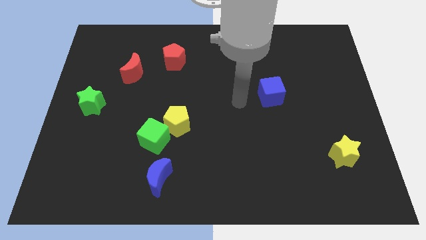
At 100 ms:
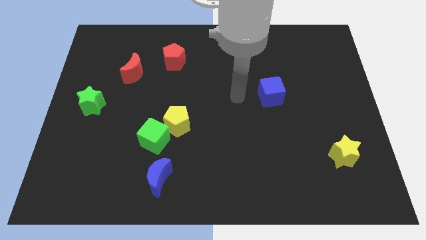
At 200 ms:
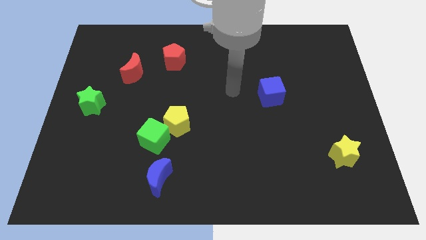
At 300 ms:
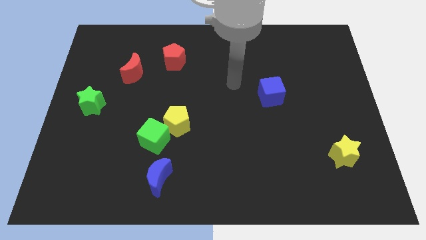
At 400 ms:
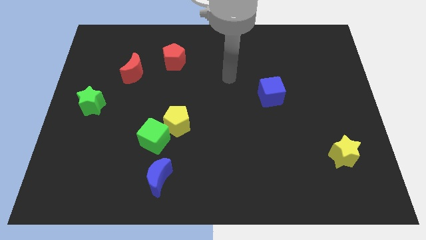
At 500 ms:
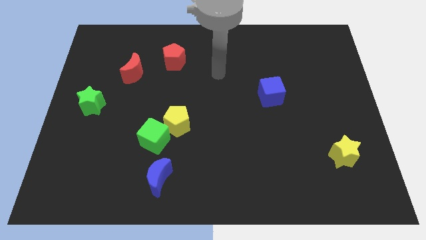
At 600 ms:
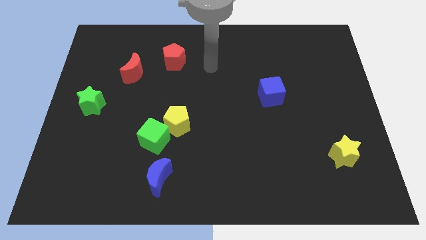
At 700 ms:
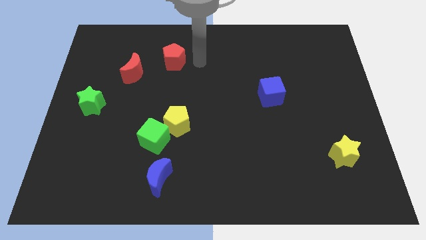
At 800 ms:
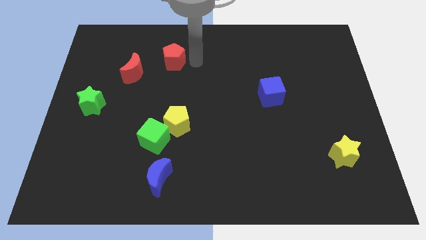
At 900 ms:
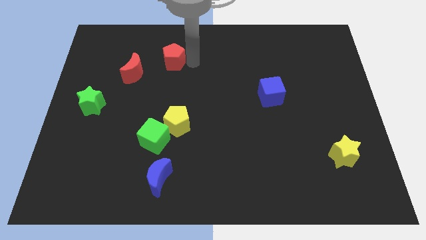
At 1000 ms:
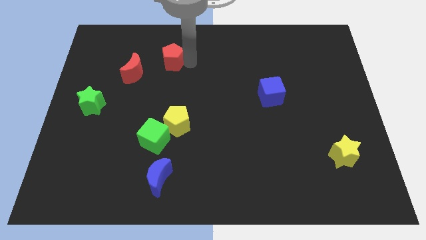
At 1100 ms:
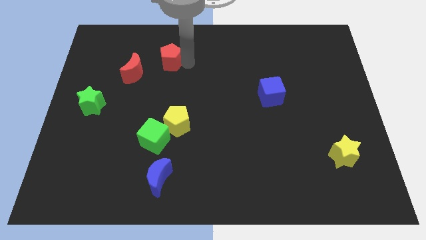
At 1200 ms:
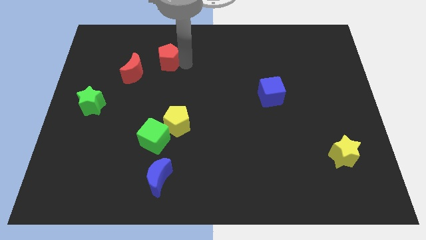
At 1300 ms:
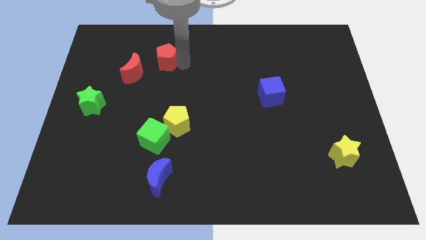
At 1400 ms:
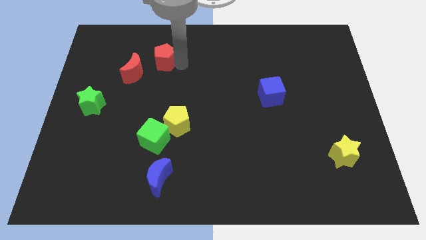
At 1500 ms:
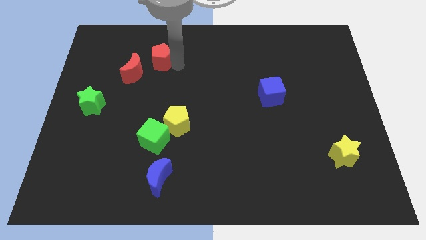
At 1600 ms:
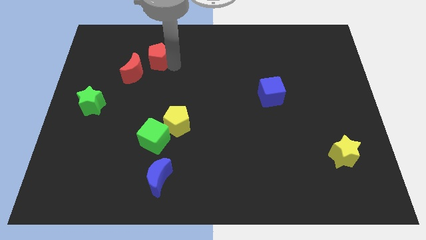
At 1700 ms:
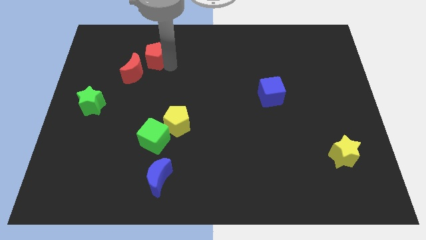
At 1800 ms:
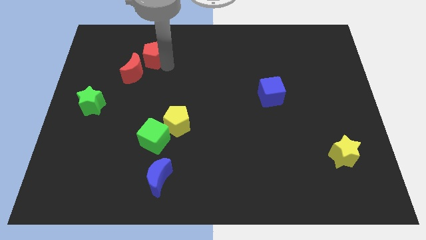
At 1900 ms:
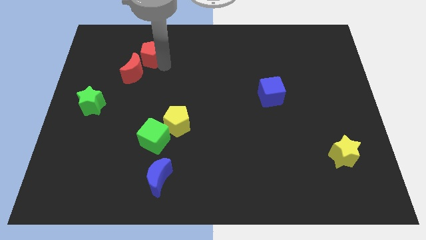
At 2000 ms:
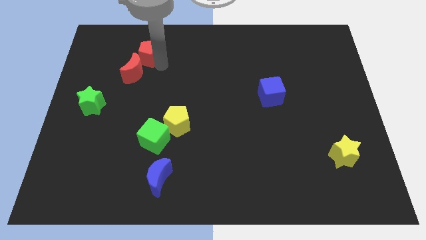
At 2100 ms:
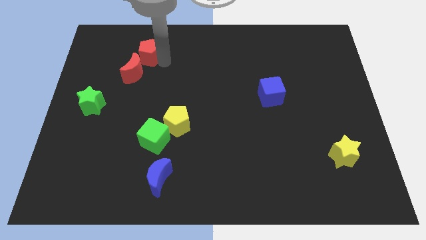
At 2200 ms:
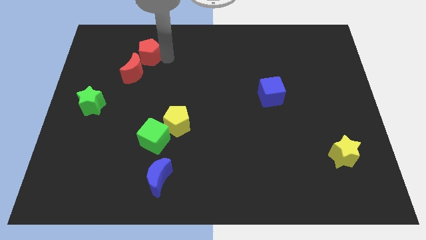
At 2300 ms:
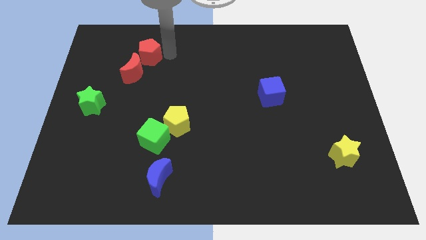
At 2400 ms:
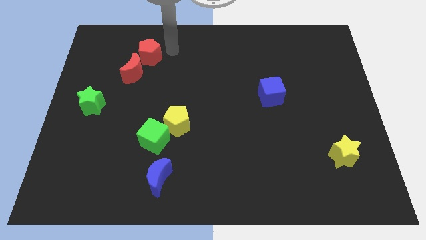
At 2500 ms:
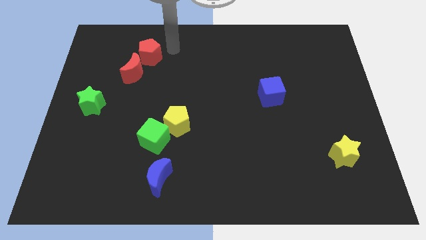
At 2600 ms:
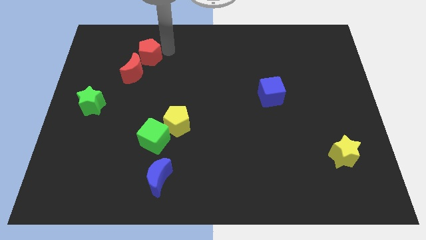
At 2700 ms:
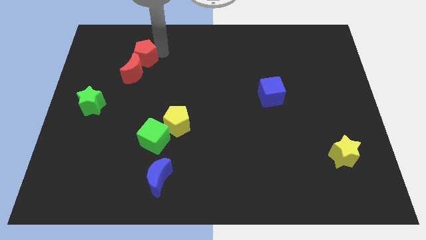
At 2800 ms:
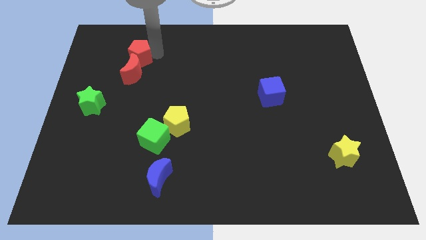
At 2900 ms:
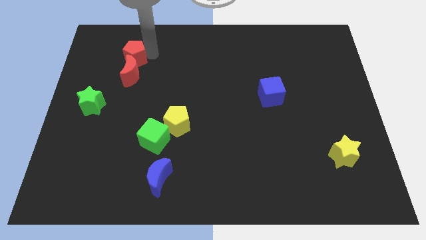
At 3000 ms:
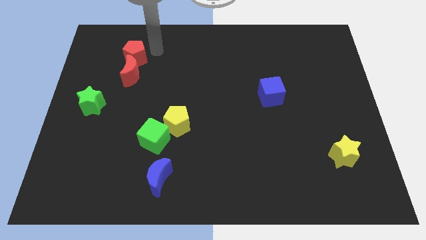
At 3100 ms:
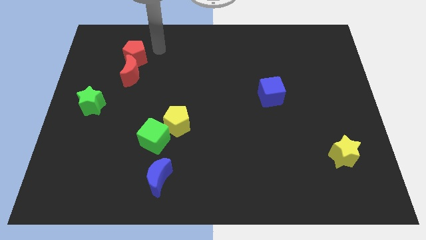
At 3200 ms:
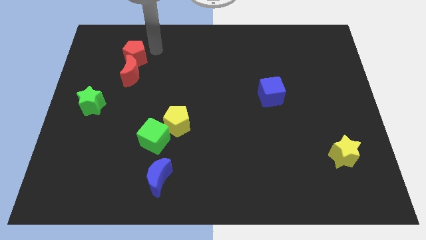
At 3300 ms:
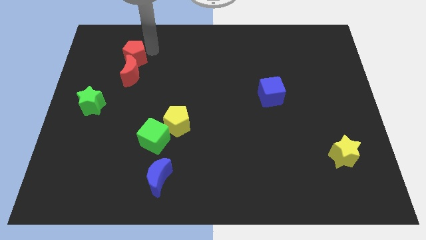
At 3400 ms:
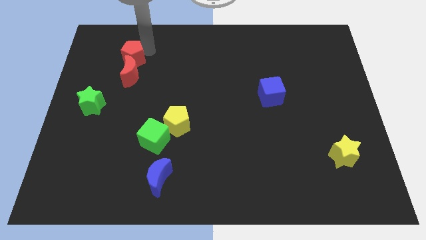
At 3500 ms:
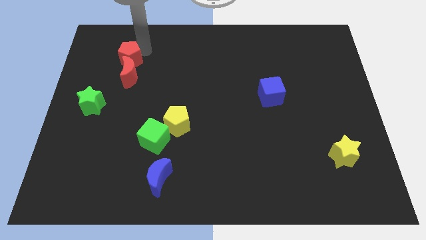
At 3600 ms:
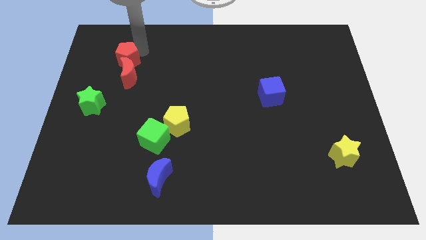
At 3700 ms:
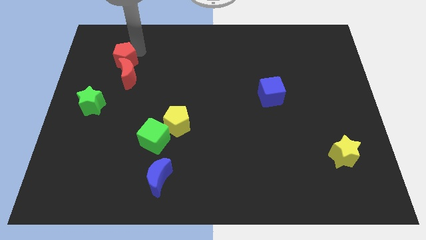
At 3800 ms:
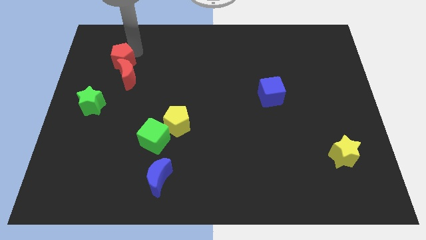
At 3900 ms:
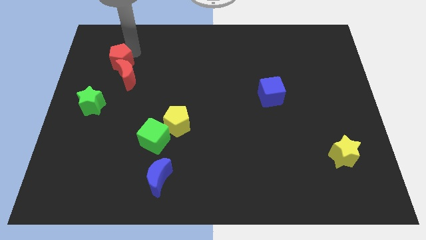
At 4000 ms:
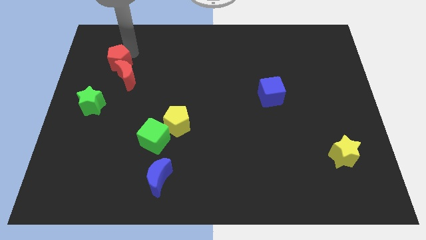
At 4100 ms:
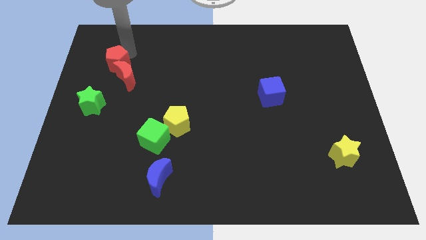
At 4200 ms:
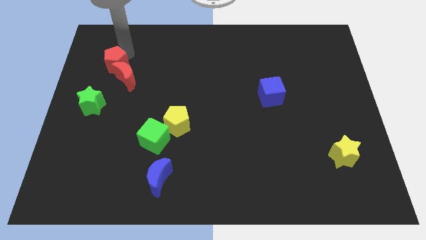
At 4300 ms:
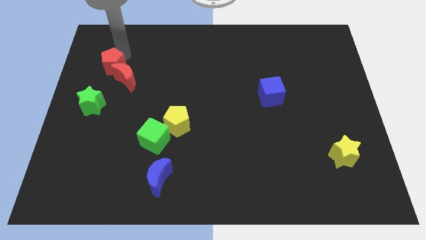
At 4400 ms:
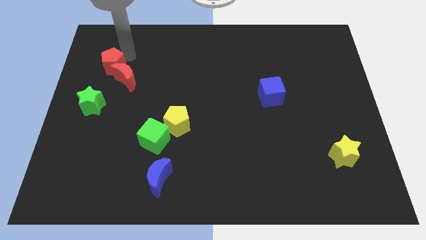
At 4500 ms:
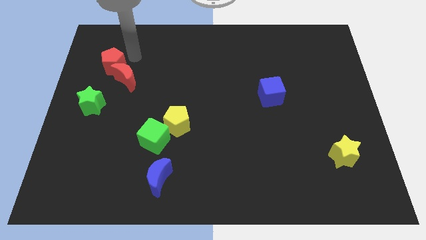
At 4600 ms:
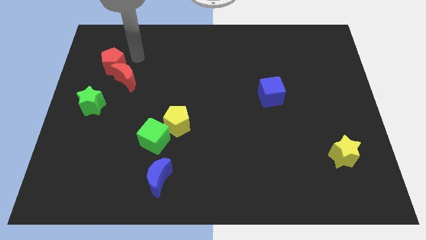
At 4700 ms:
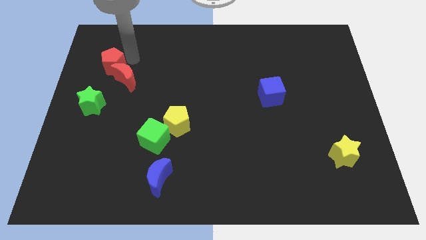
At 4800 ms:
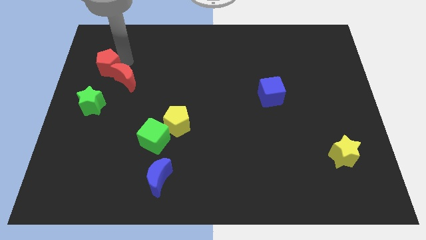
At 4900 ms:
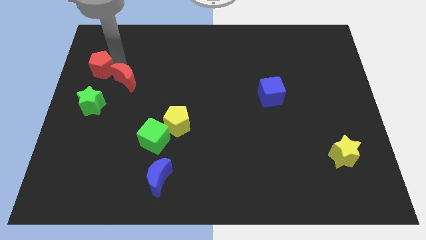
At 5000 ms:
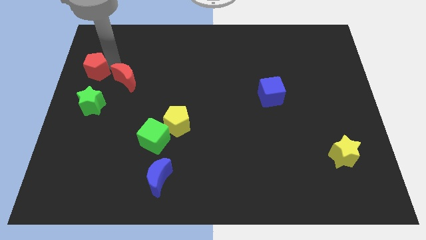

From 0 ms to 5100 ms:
move the red pentagon to the center left

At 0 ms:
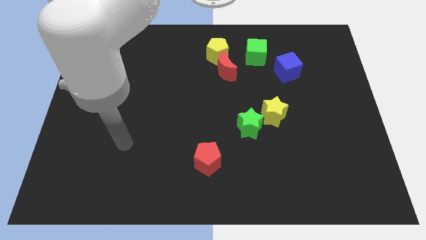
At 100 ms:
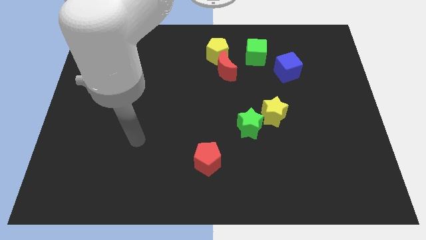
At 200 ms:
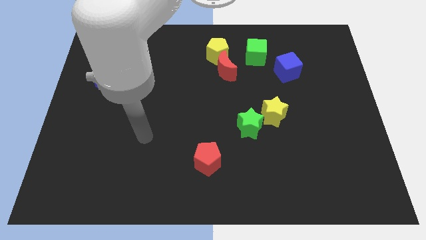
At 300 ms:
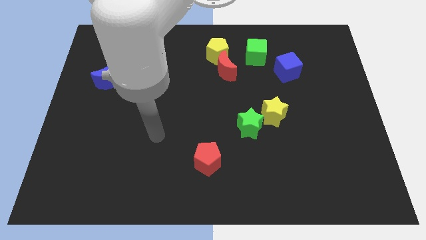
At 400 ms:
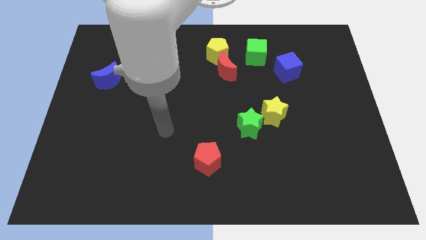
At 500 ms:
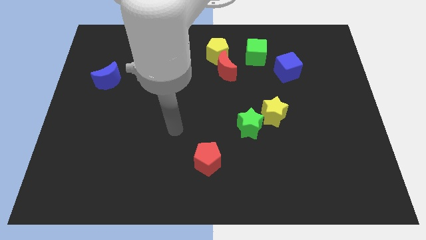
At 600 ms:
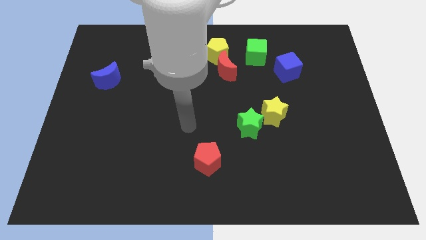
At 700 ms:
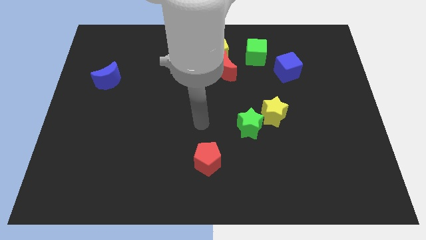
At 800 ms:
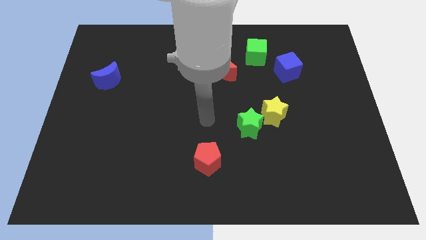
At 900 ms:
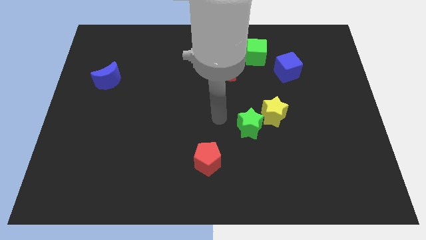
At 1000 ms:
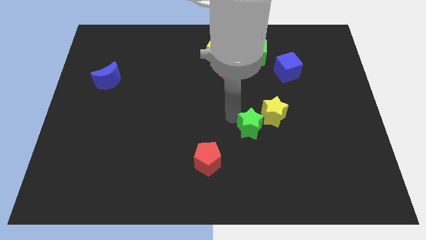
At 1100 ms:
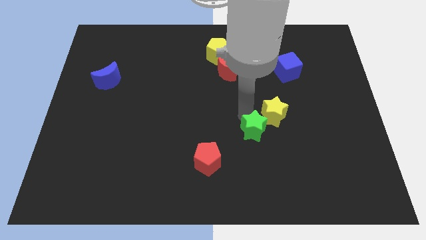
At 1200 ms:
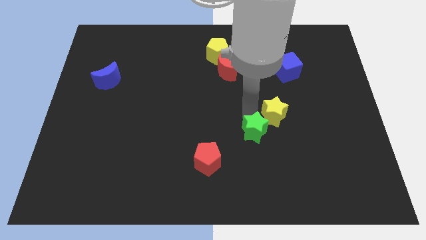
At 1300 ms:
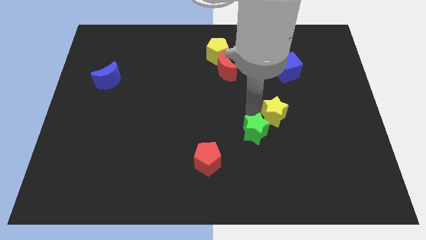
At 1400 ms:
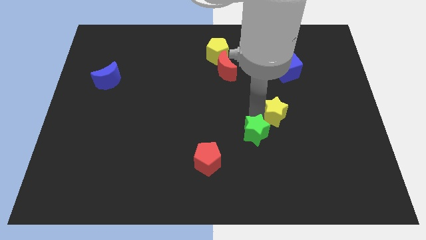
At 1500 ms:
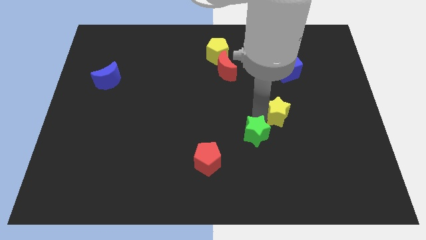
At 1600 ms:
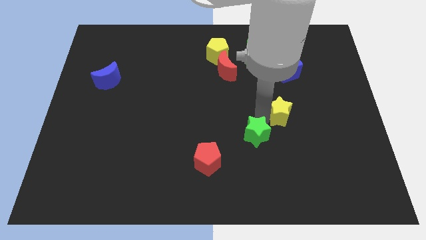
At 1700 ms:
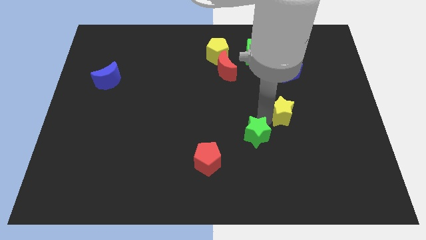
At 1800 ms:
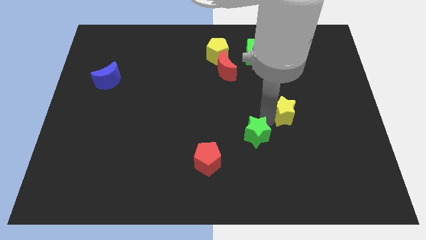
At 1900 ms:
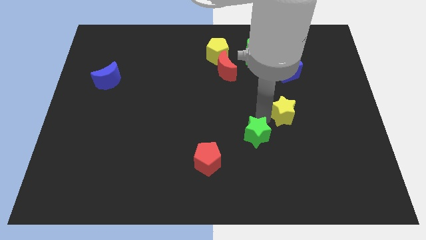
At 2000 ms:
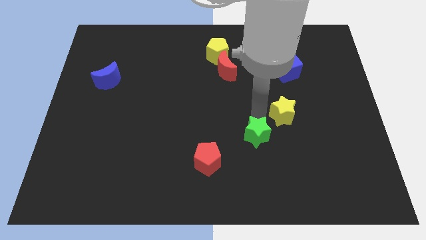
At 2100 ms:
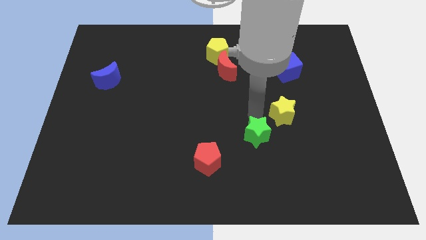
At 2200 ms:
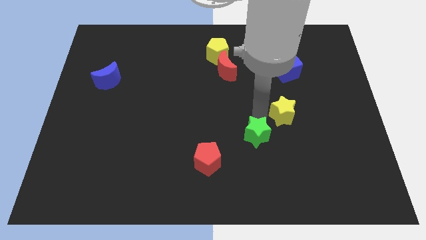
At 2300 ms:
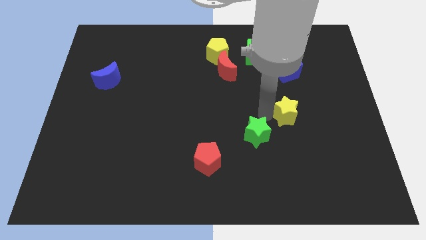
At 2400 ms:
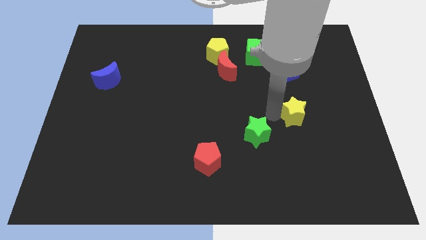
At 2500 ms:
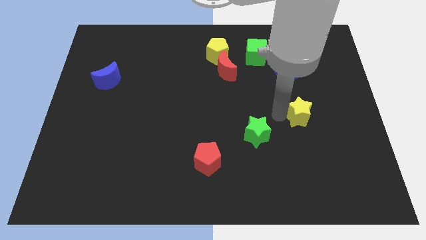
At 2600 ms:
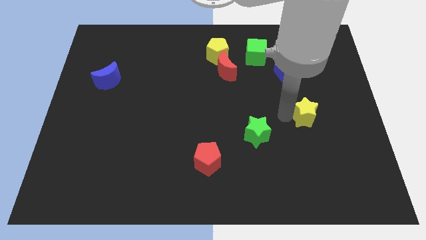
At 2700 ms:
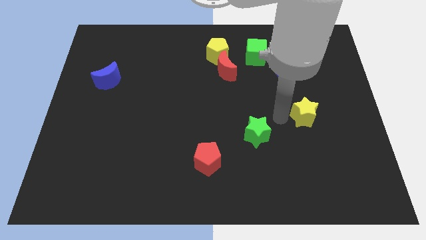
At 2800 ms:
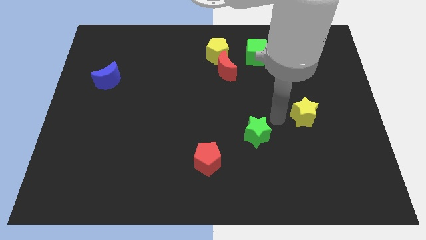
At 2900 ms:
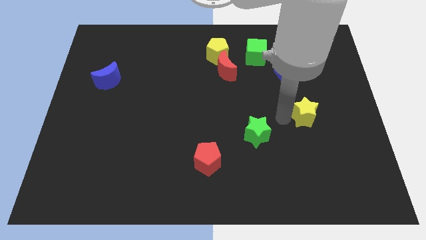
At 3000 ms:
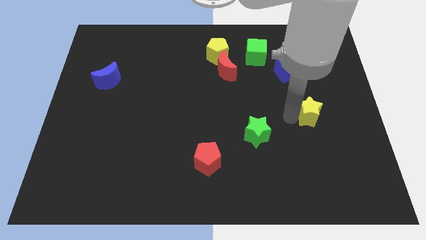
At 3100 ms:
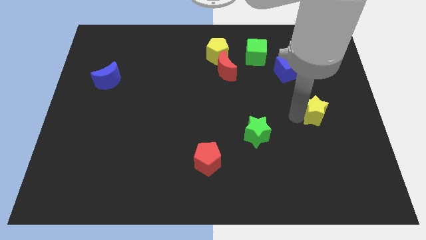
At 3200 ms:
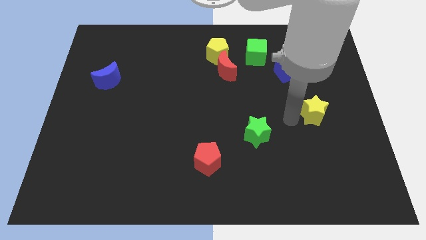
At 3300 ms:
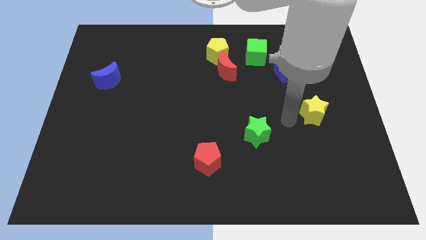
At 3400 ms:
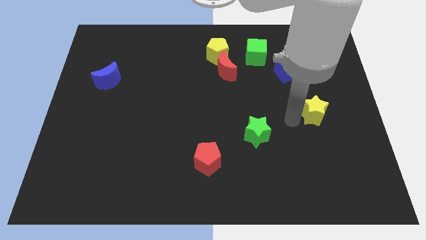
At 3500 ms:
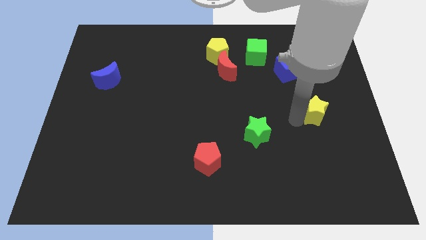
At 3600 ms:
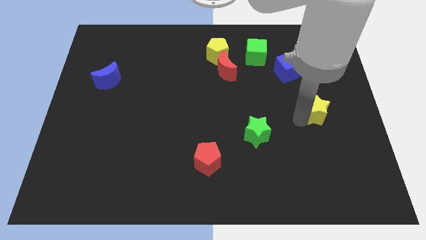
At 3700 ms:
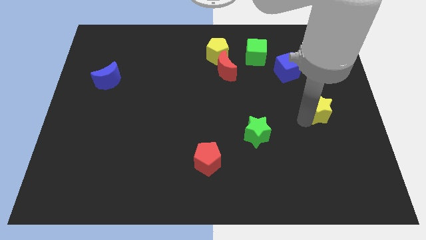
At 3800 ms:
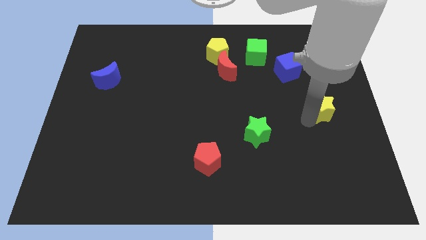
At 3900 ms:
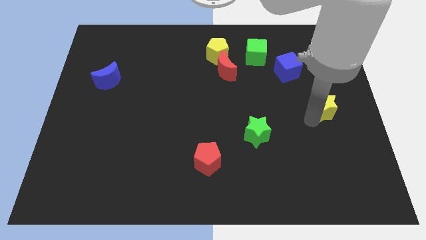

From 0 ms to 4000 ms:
slide the yellow star to the center right
